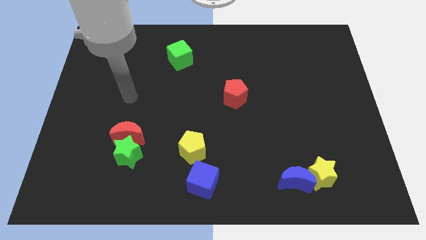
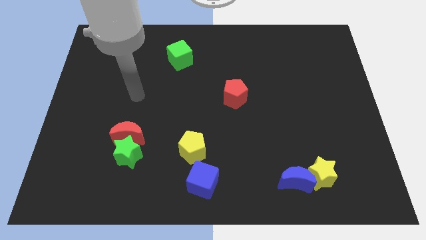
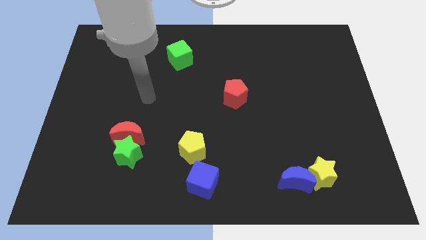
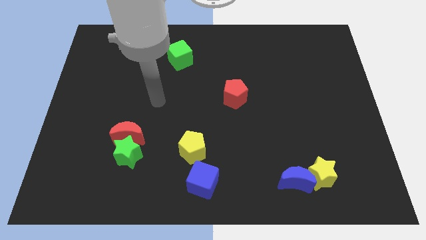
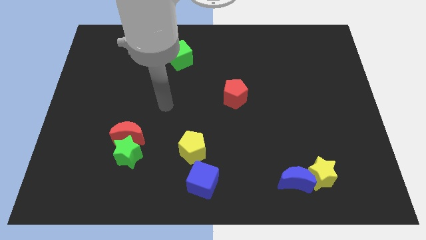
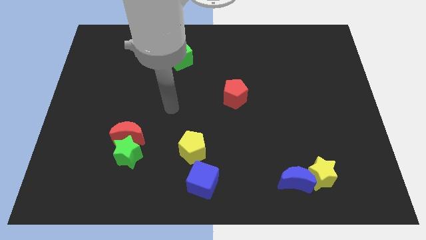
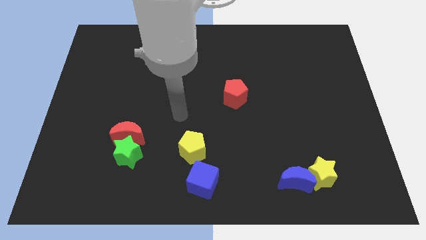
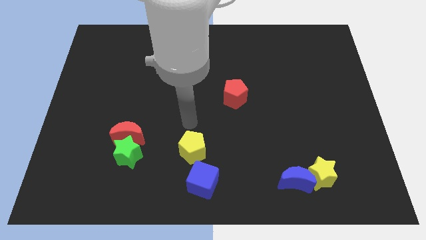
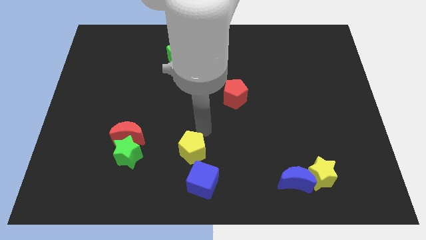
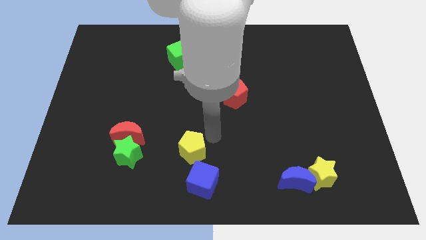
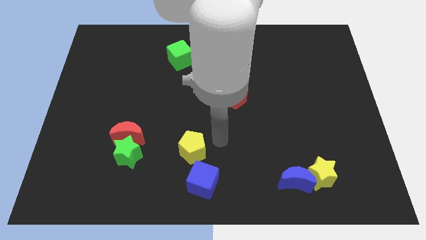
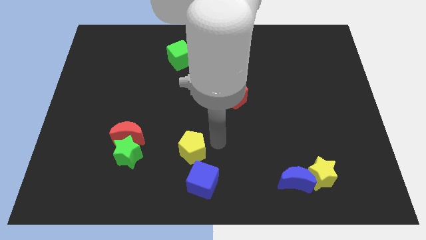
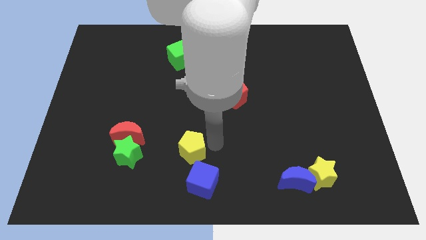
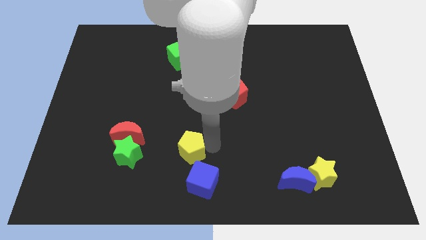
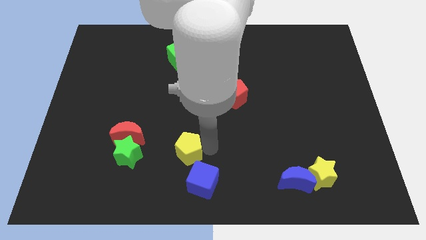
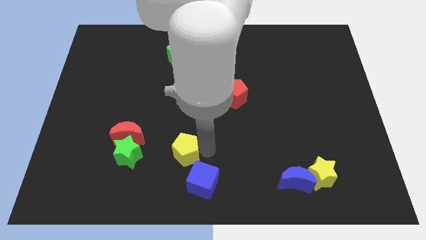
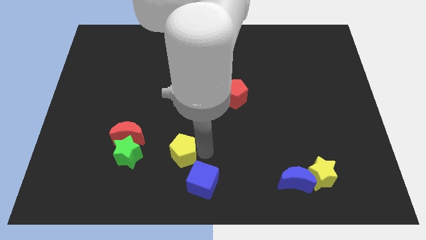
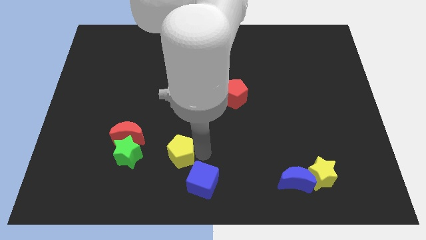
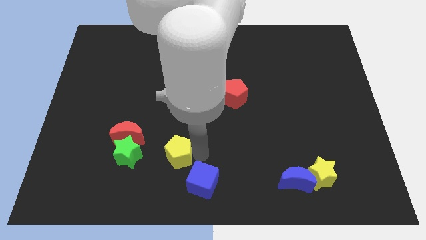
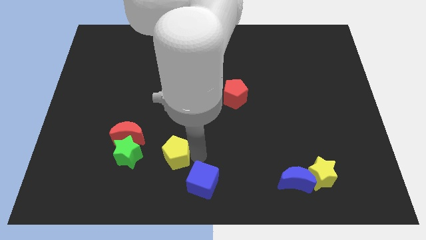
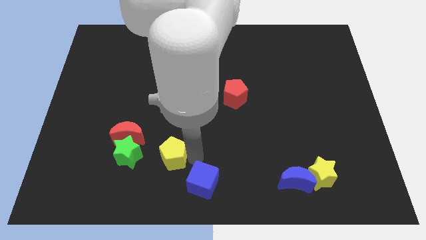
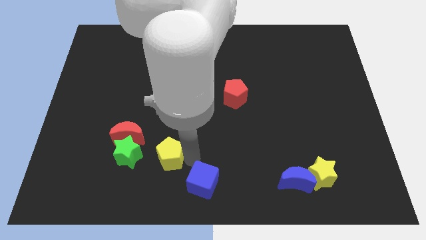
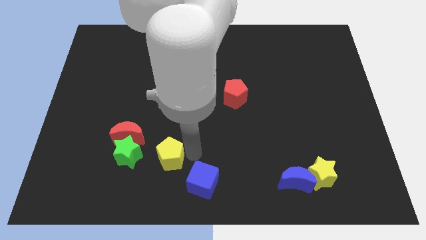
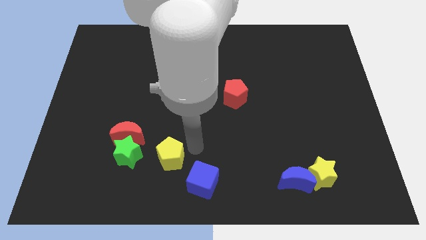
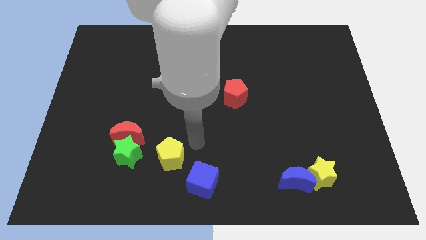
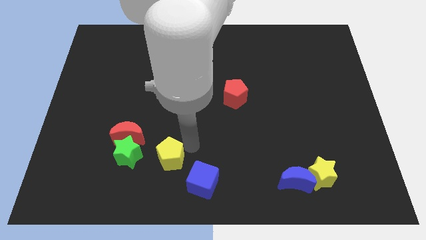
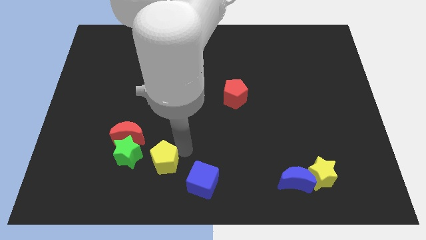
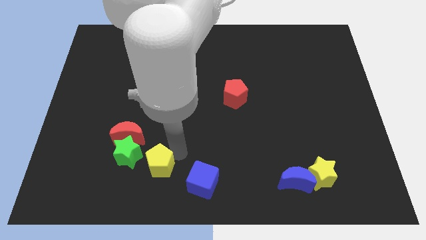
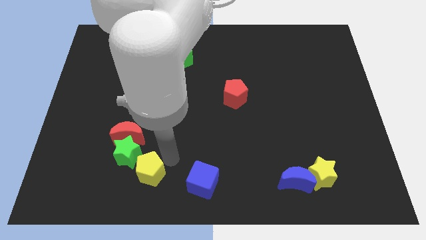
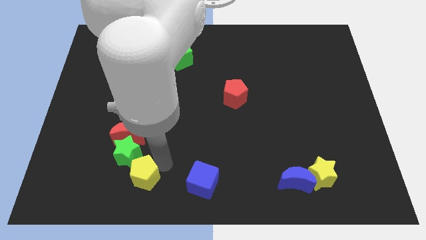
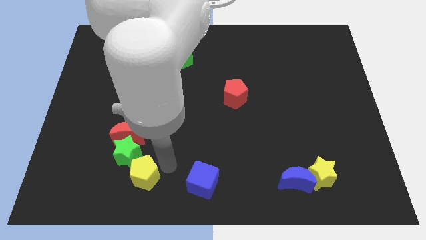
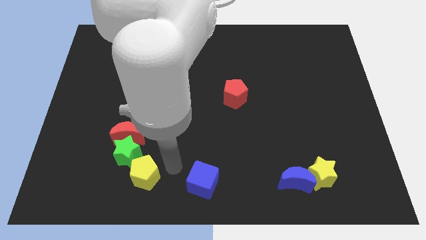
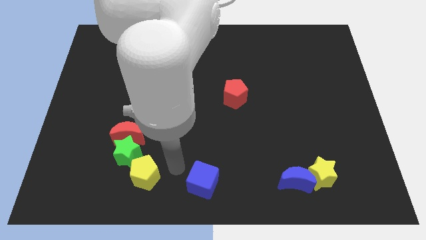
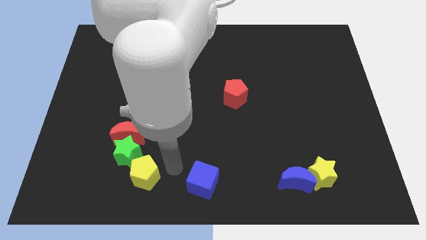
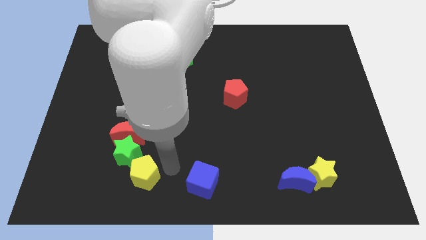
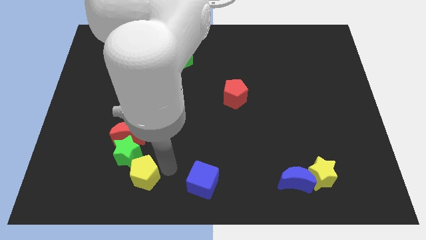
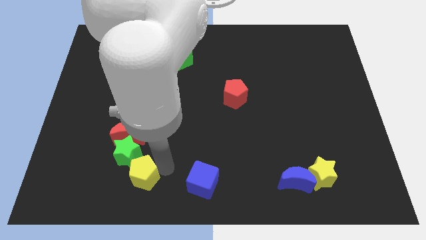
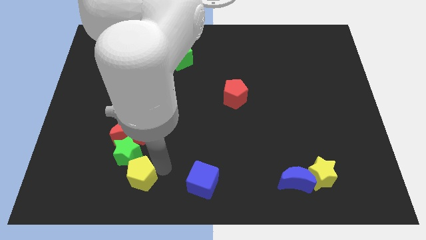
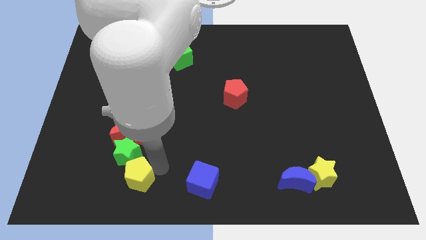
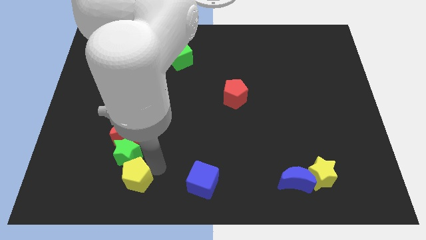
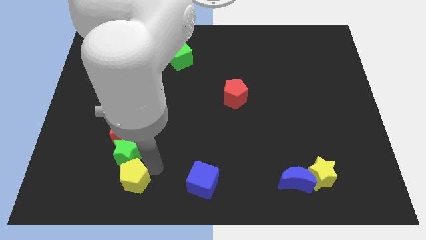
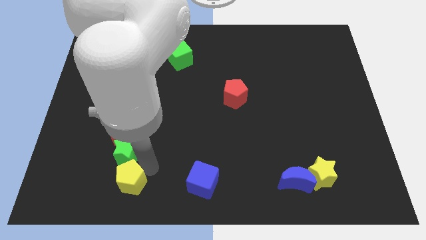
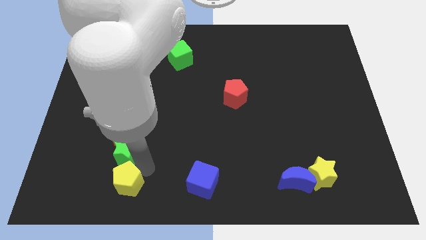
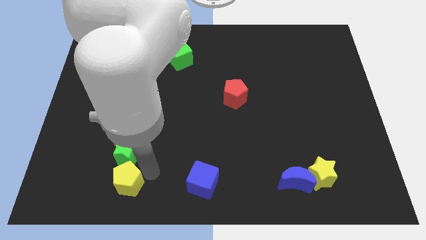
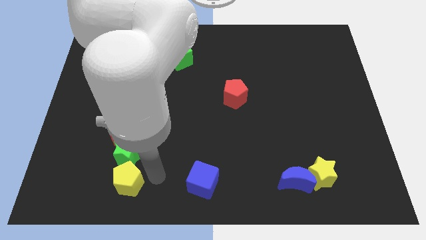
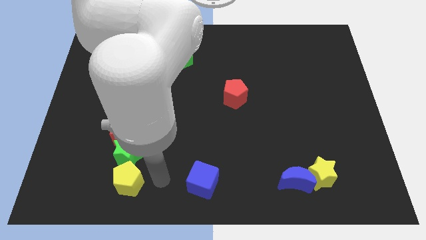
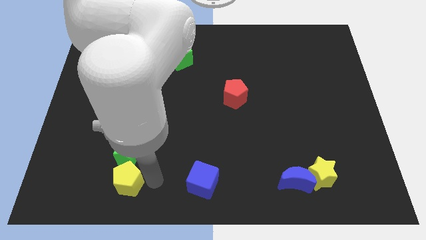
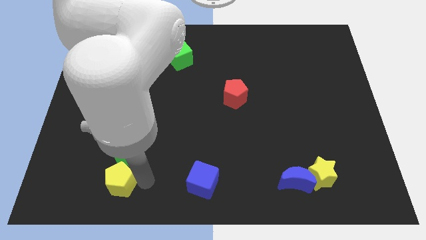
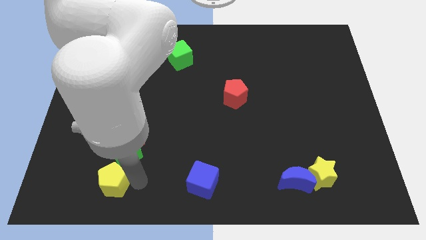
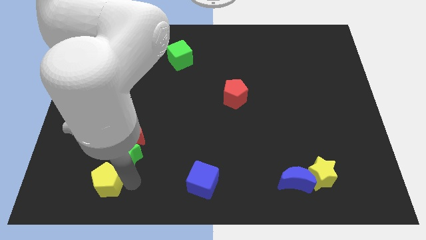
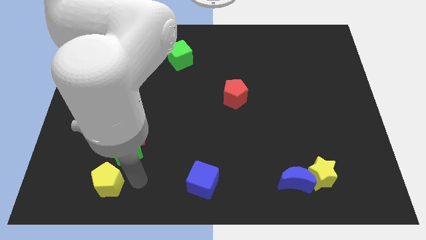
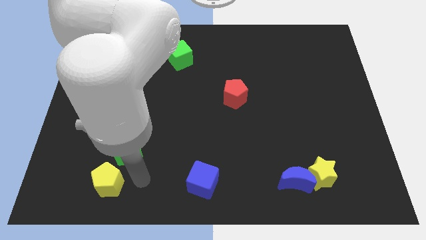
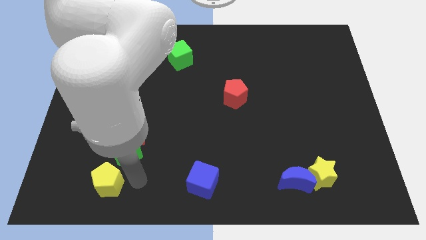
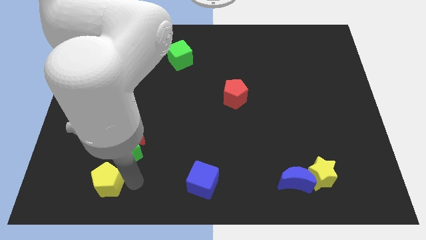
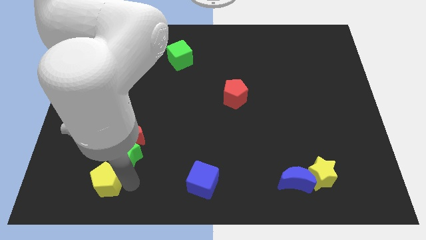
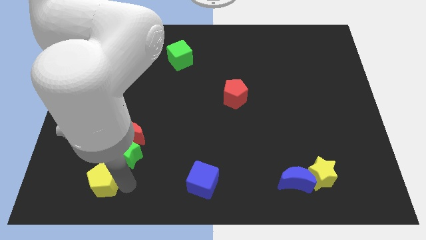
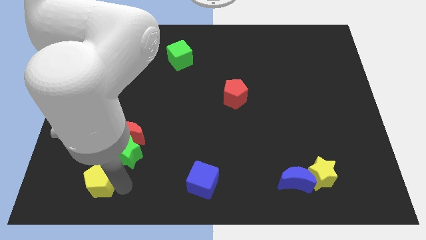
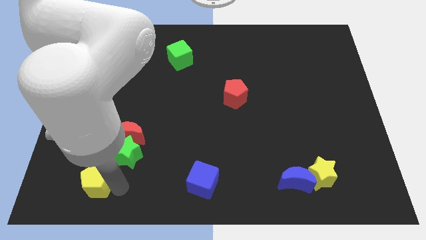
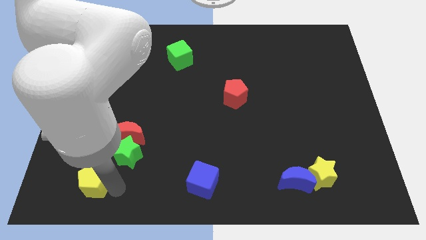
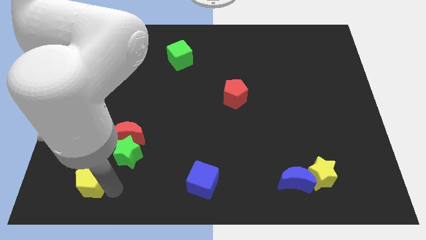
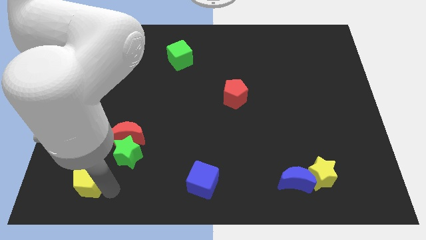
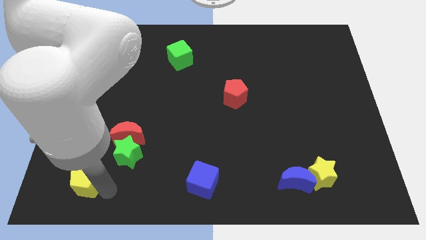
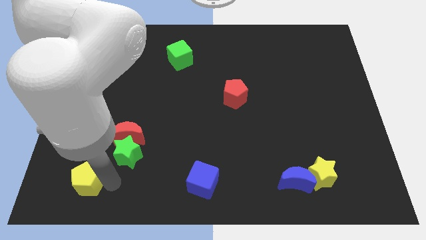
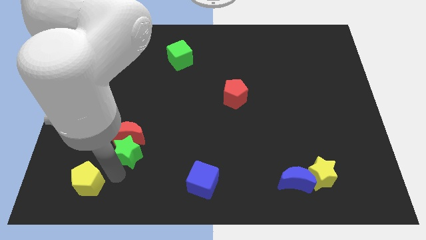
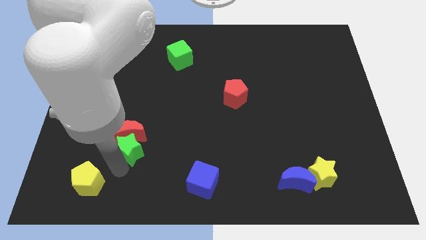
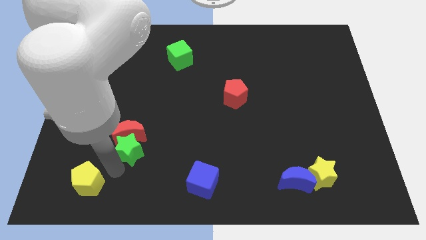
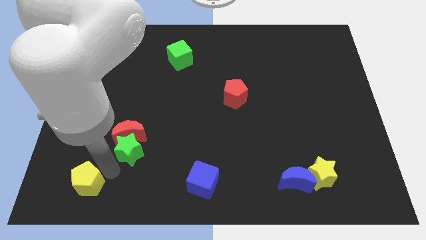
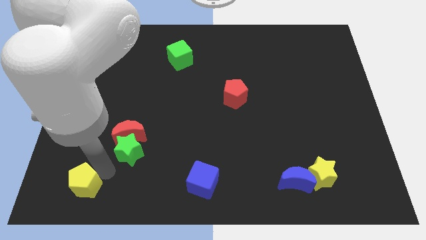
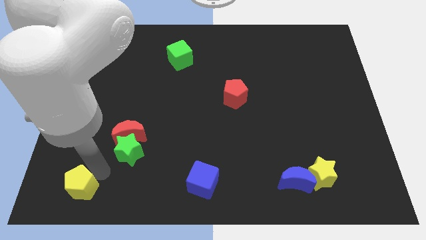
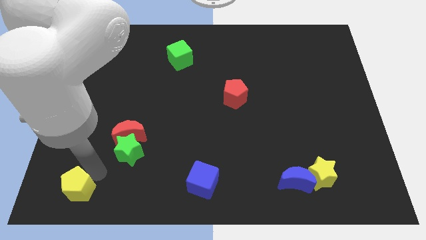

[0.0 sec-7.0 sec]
move the yellow pentagon to the bottom left corner

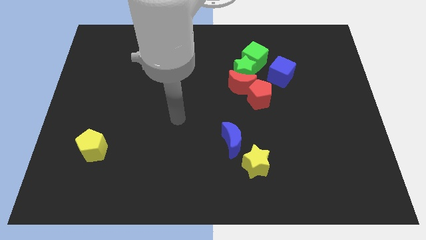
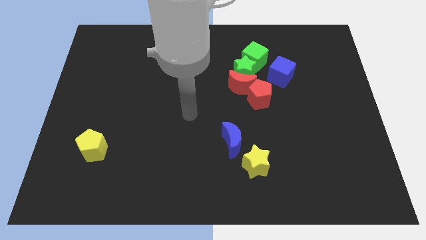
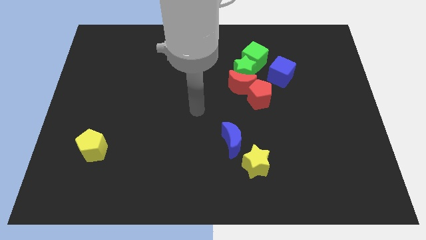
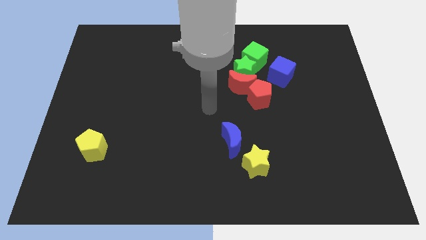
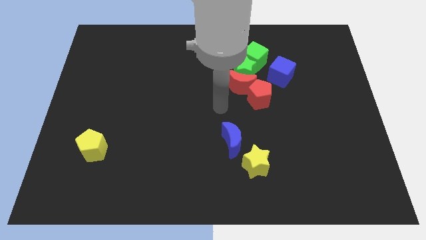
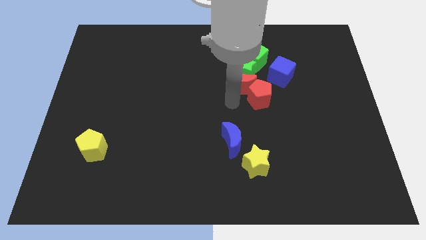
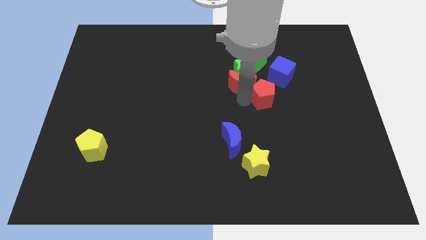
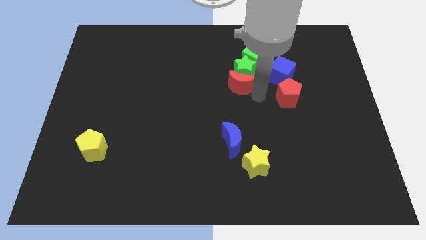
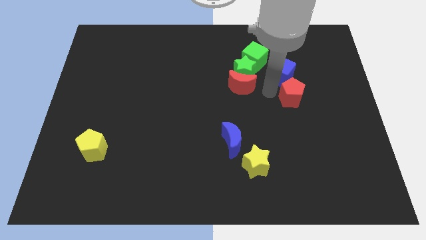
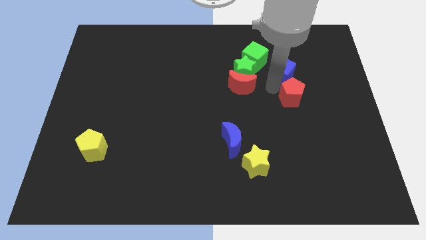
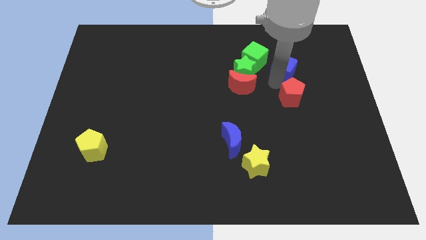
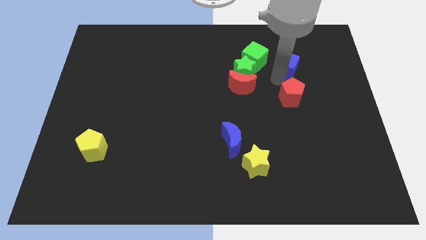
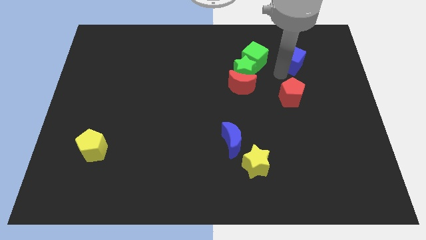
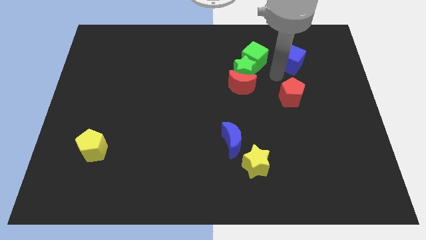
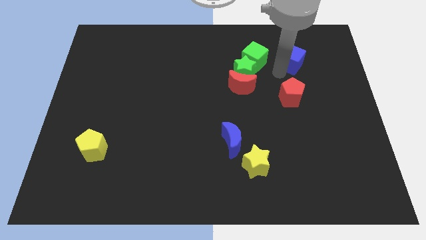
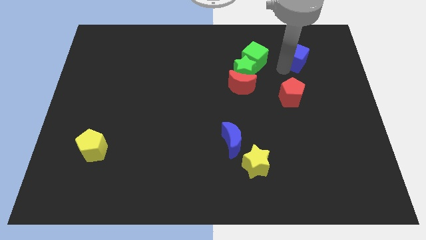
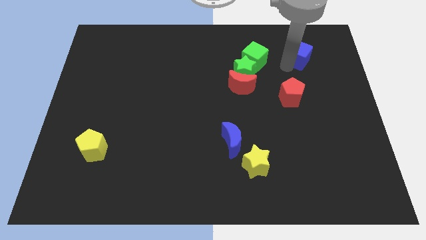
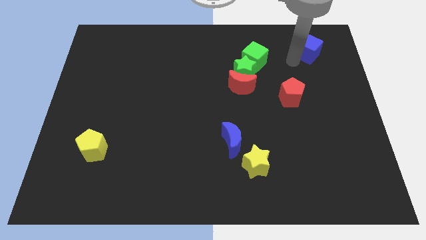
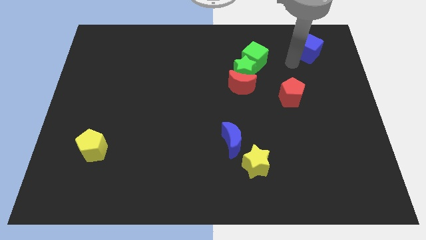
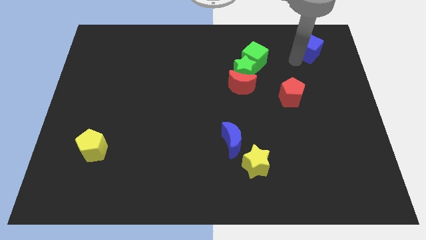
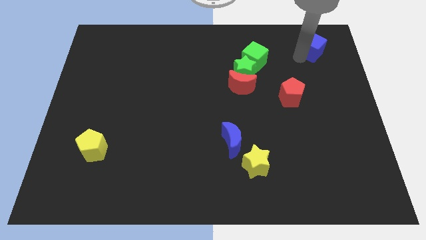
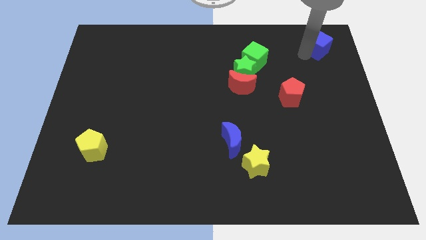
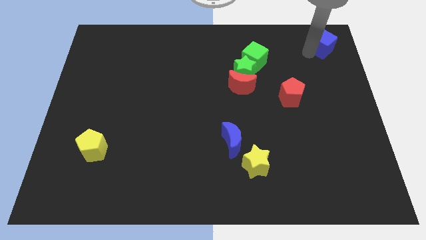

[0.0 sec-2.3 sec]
move the blue cube to the top right of the board
